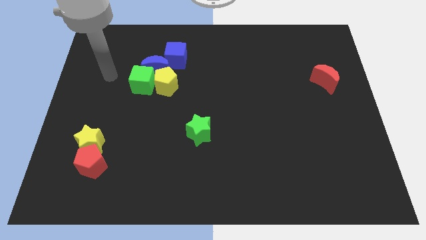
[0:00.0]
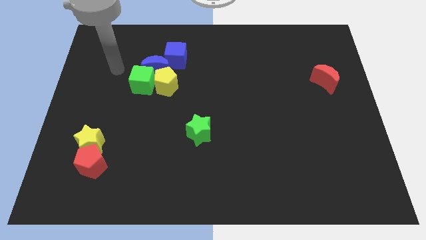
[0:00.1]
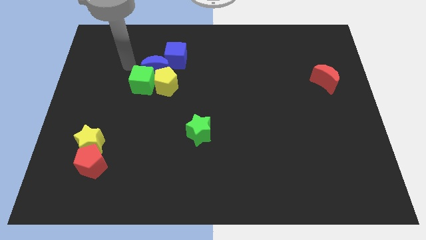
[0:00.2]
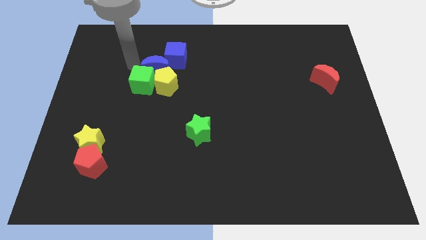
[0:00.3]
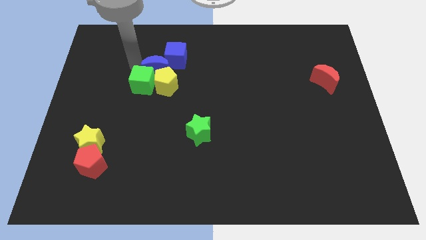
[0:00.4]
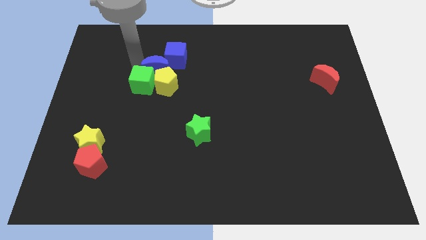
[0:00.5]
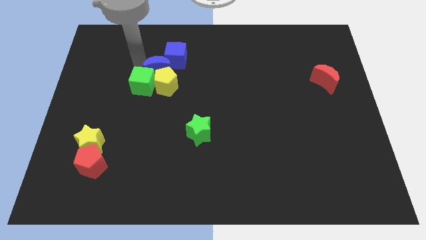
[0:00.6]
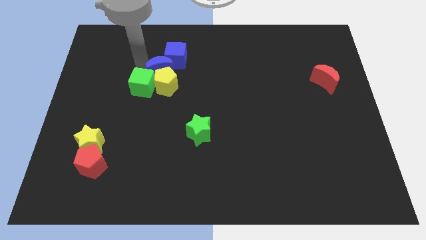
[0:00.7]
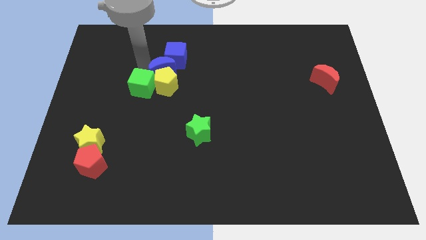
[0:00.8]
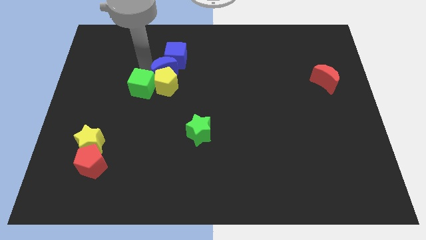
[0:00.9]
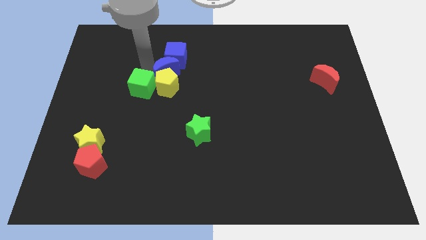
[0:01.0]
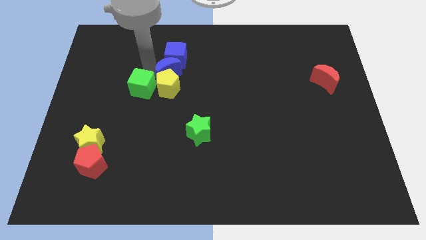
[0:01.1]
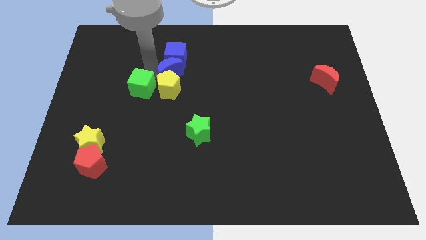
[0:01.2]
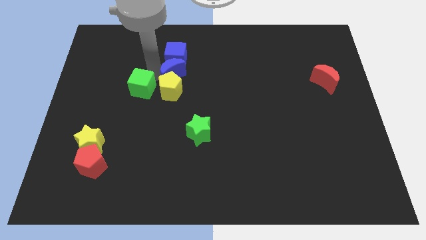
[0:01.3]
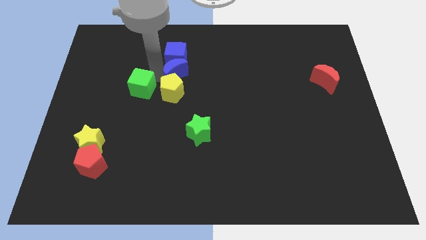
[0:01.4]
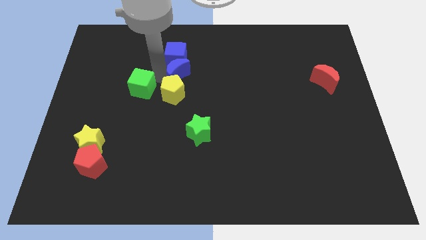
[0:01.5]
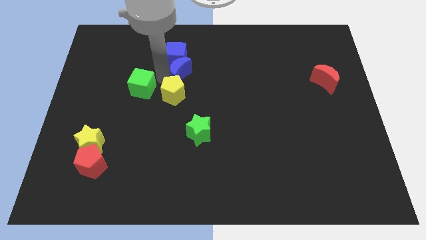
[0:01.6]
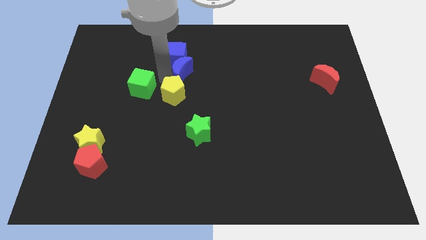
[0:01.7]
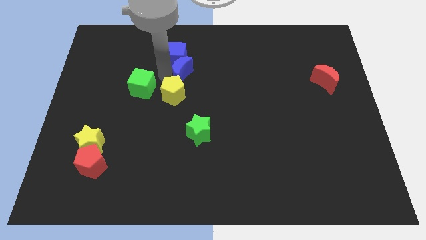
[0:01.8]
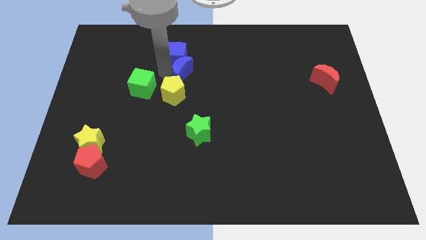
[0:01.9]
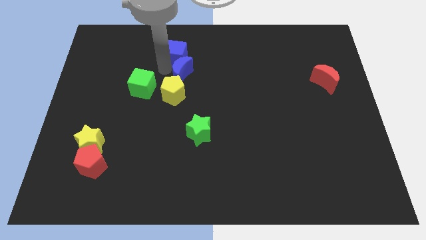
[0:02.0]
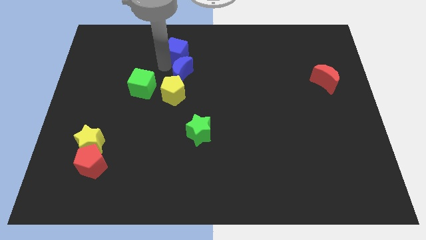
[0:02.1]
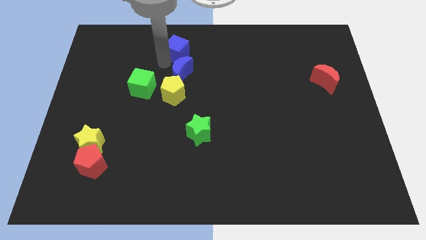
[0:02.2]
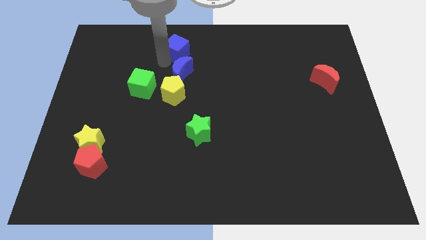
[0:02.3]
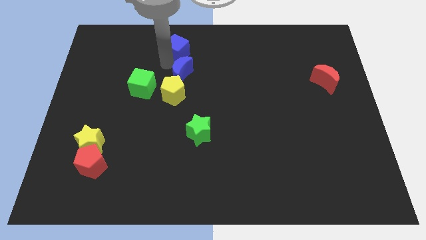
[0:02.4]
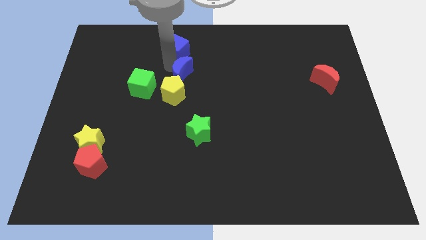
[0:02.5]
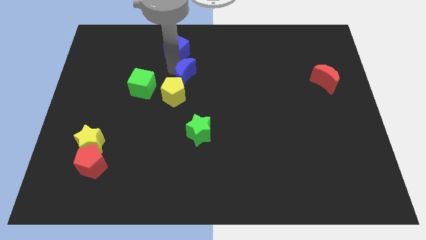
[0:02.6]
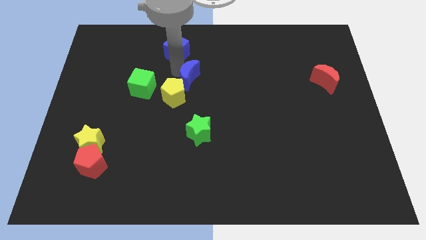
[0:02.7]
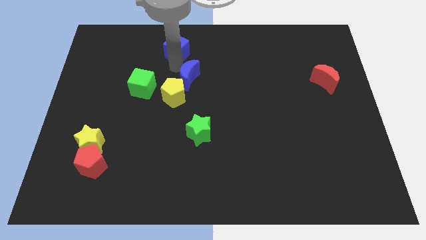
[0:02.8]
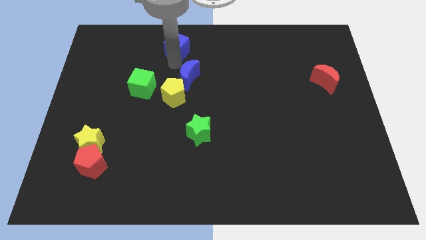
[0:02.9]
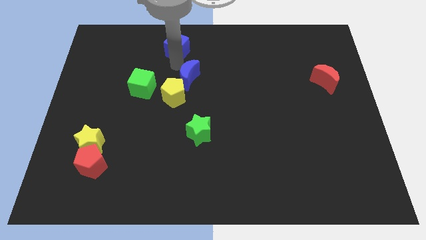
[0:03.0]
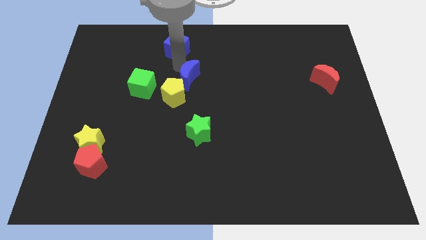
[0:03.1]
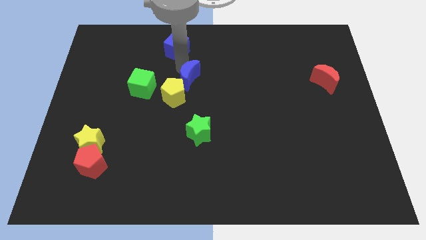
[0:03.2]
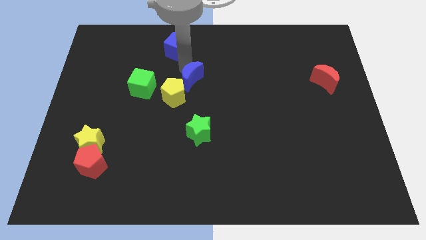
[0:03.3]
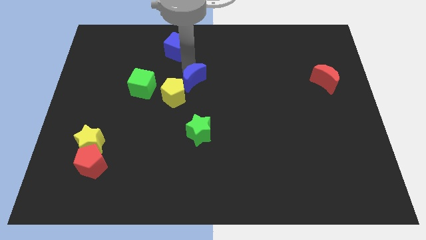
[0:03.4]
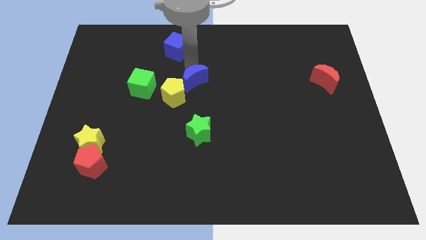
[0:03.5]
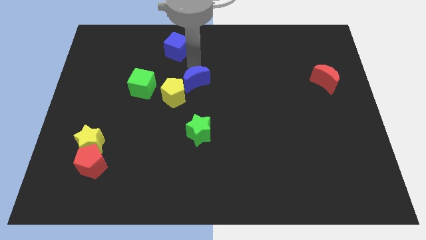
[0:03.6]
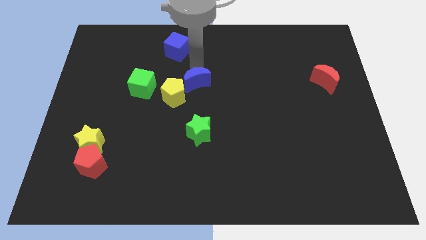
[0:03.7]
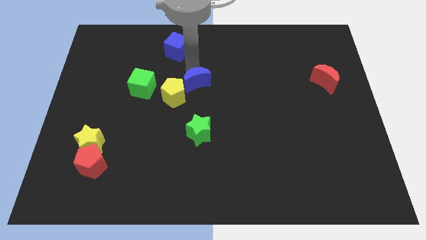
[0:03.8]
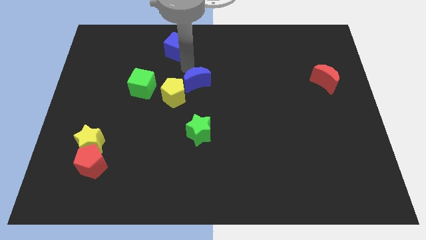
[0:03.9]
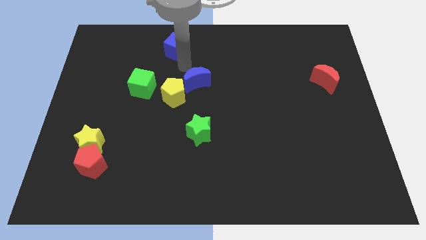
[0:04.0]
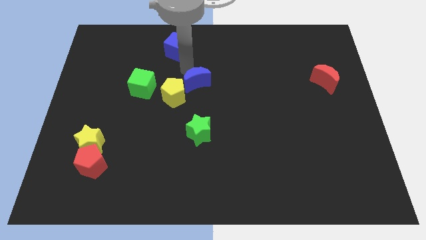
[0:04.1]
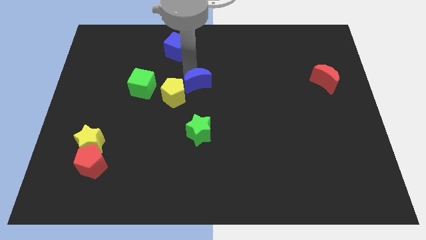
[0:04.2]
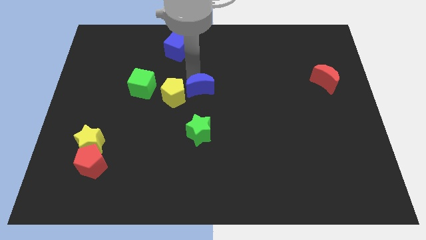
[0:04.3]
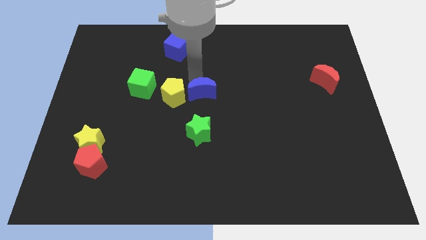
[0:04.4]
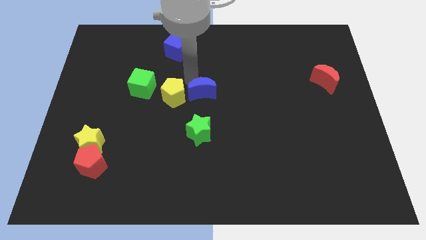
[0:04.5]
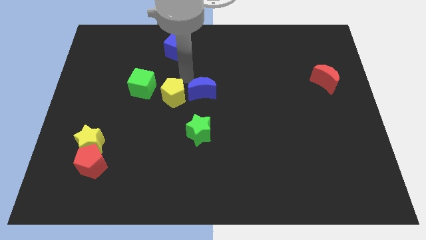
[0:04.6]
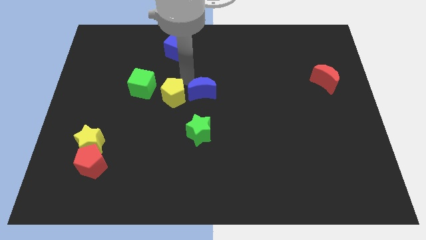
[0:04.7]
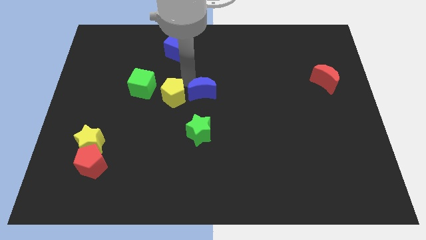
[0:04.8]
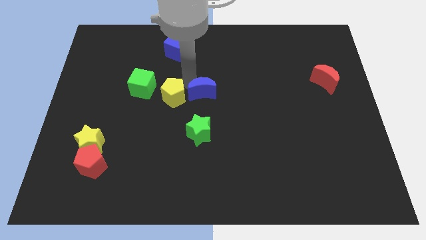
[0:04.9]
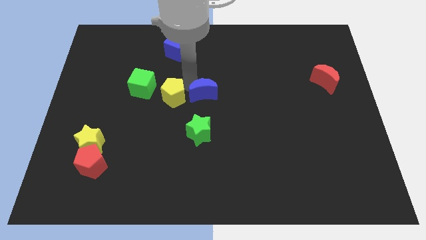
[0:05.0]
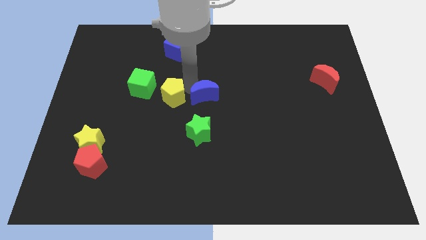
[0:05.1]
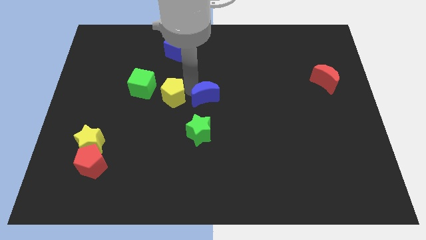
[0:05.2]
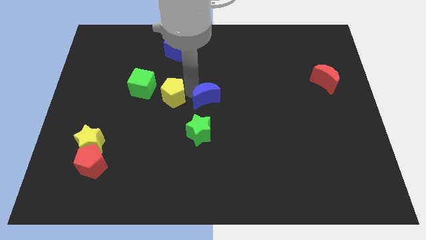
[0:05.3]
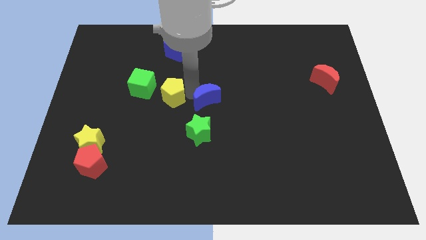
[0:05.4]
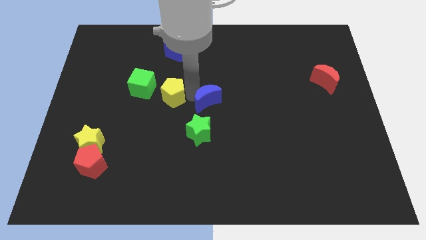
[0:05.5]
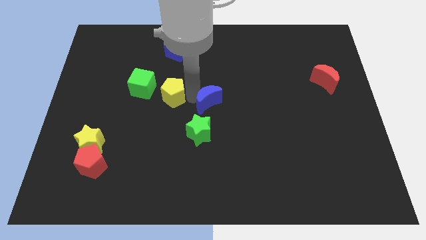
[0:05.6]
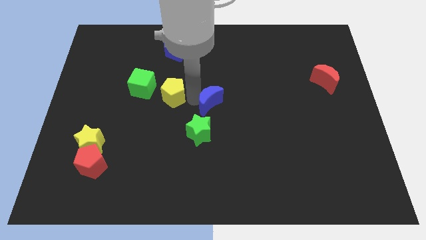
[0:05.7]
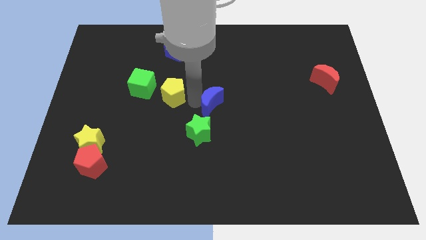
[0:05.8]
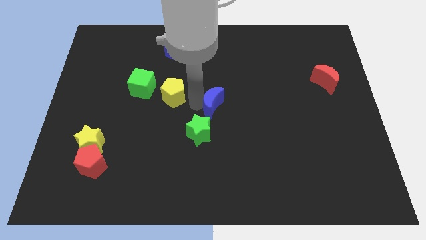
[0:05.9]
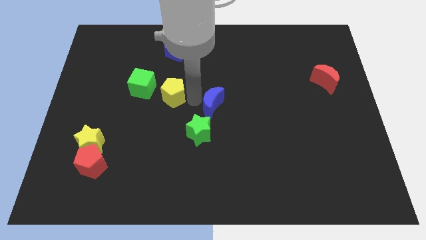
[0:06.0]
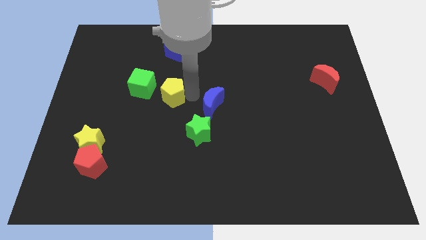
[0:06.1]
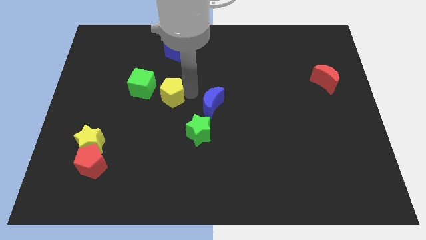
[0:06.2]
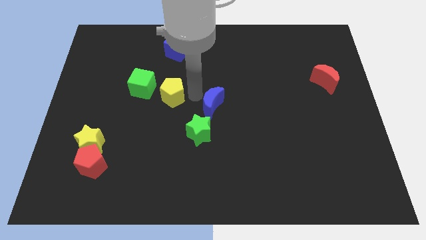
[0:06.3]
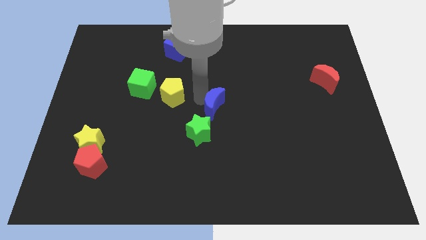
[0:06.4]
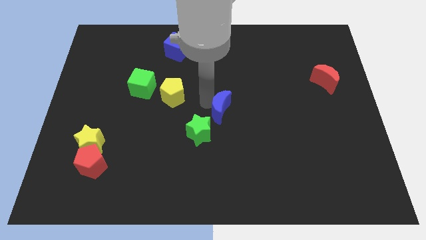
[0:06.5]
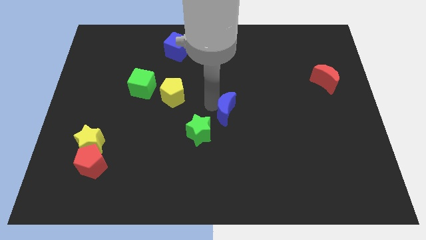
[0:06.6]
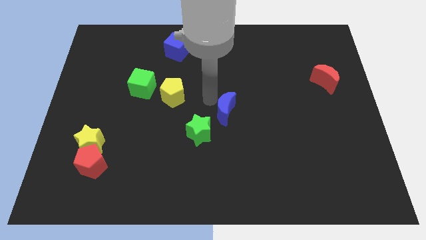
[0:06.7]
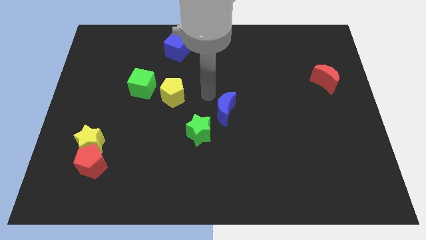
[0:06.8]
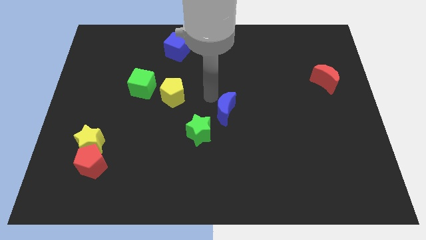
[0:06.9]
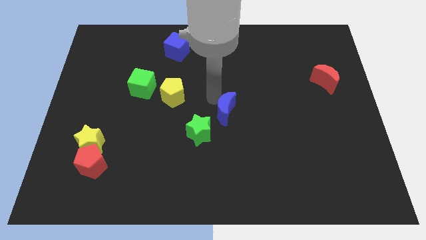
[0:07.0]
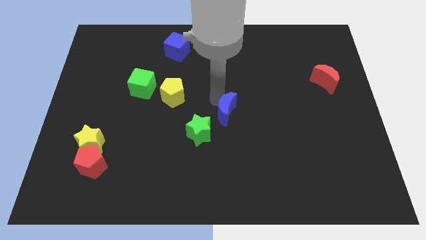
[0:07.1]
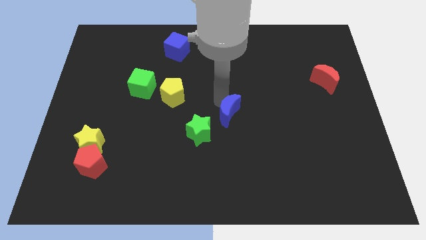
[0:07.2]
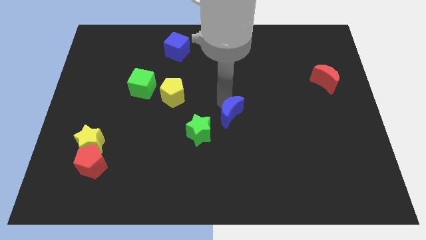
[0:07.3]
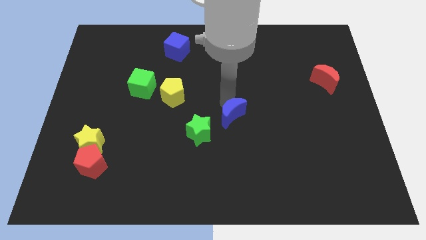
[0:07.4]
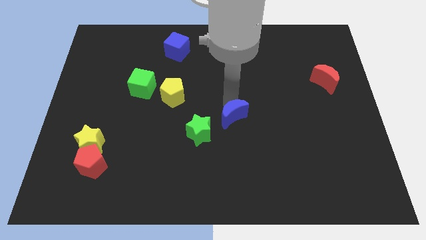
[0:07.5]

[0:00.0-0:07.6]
put the blue moon right of the green star

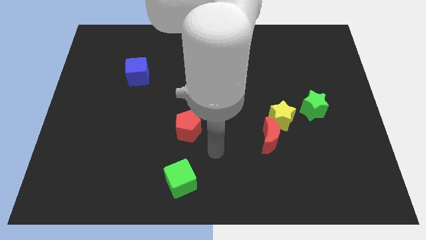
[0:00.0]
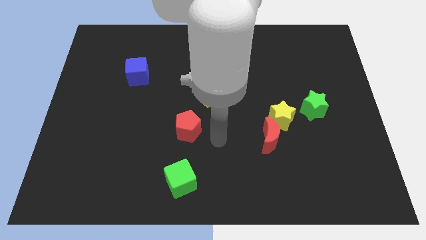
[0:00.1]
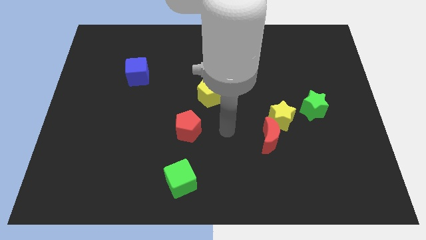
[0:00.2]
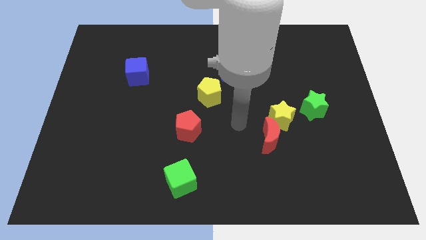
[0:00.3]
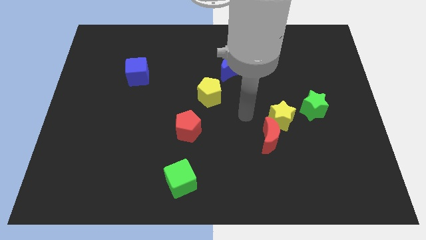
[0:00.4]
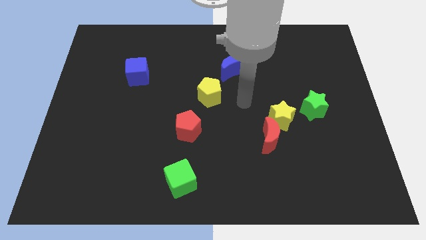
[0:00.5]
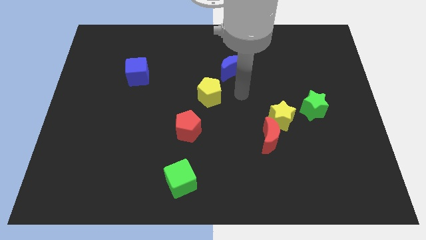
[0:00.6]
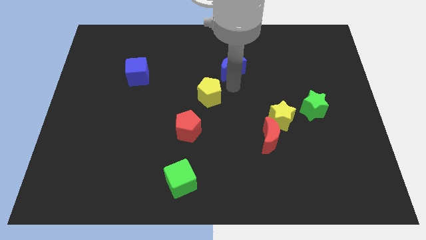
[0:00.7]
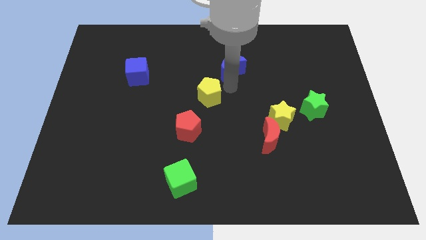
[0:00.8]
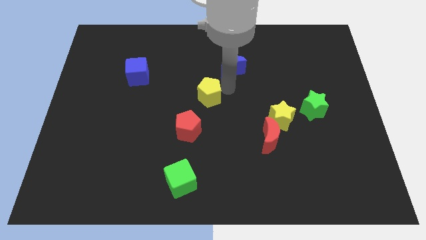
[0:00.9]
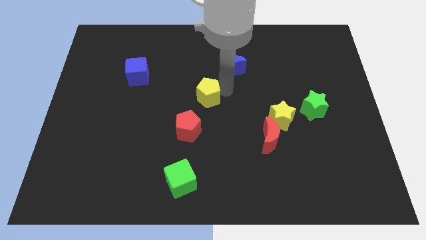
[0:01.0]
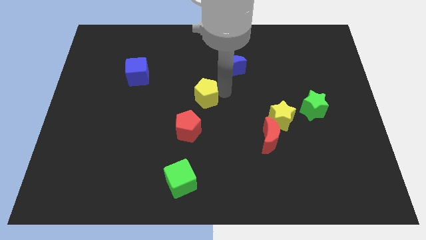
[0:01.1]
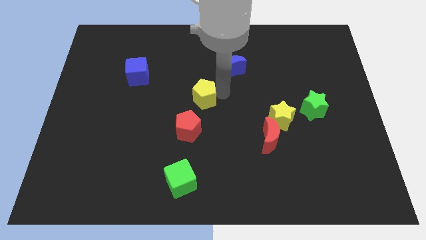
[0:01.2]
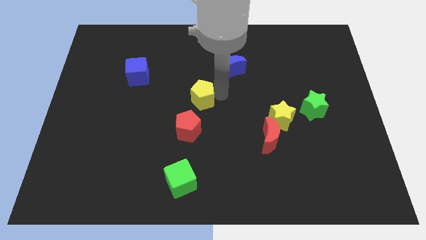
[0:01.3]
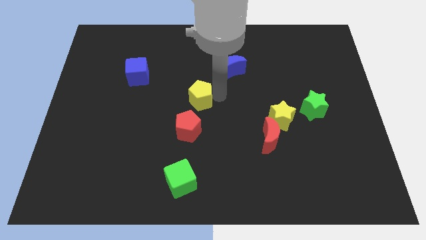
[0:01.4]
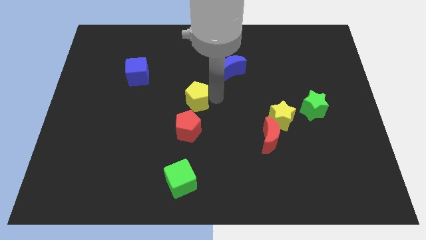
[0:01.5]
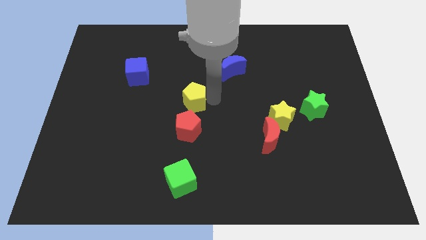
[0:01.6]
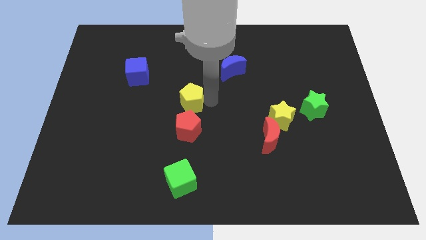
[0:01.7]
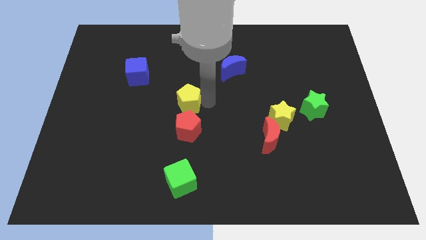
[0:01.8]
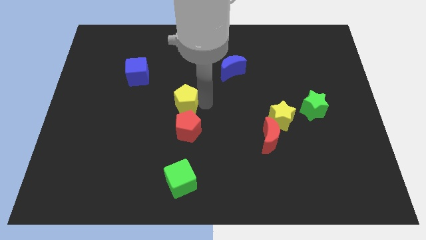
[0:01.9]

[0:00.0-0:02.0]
move the yellow pentagon diagonally up and to the left of the red pentagon
